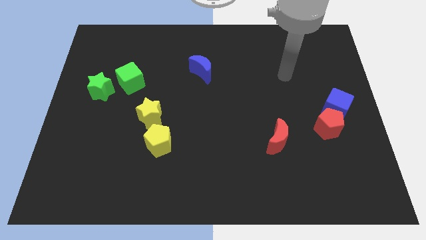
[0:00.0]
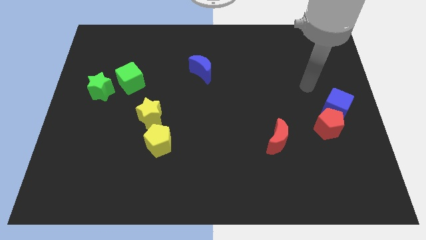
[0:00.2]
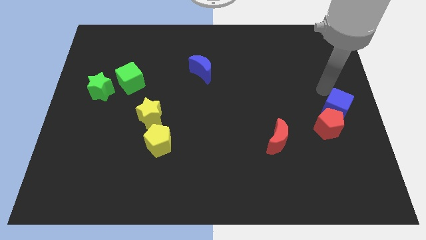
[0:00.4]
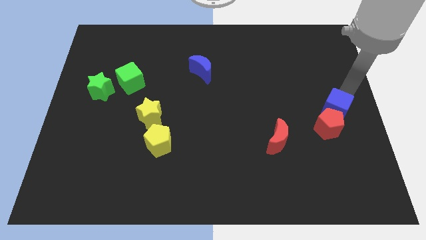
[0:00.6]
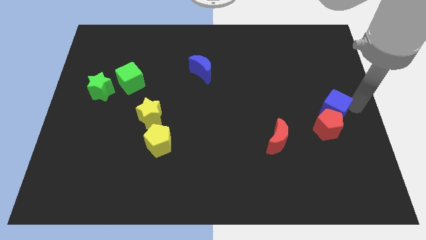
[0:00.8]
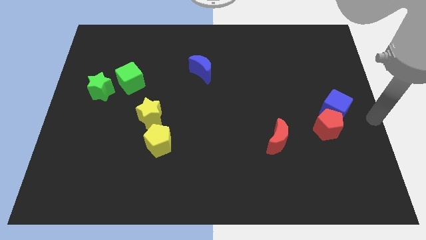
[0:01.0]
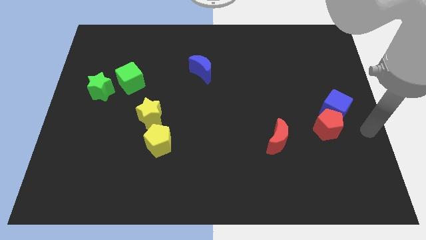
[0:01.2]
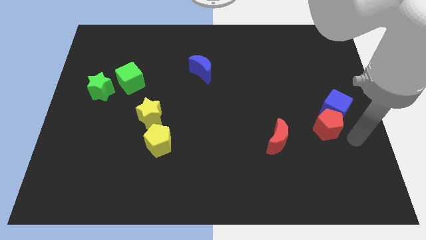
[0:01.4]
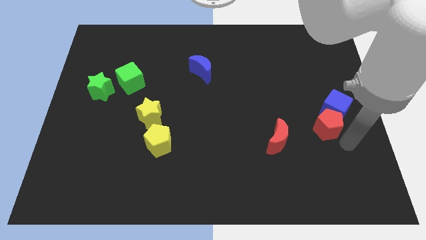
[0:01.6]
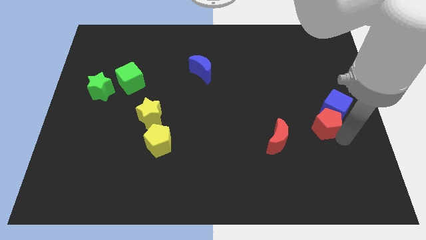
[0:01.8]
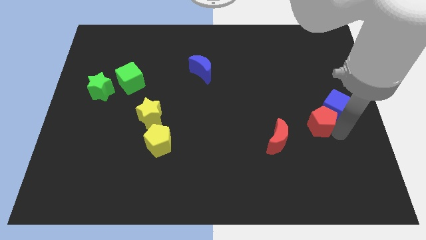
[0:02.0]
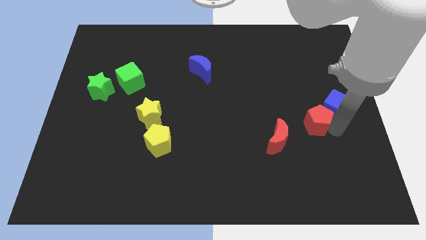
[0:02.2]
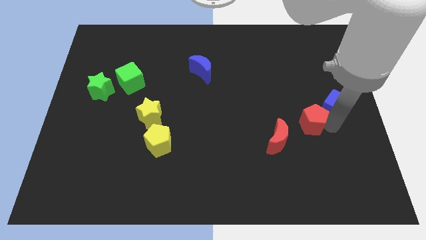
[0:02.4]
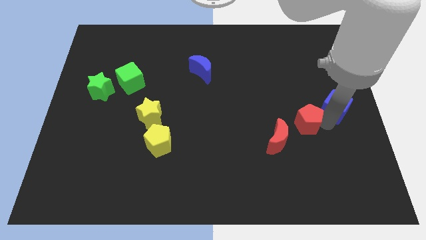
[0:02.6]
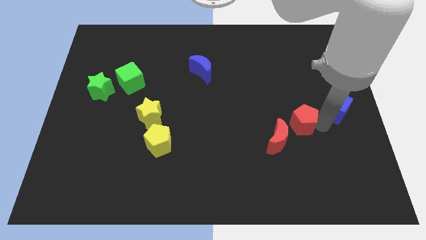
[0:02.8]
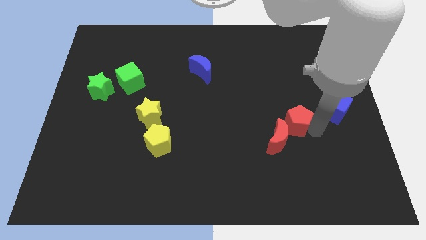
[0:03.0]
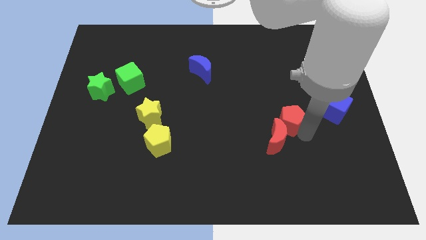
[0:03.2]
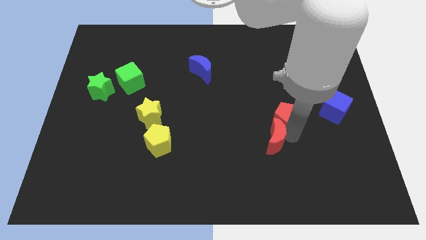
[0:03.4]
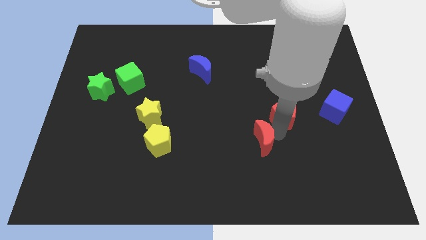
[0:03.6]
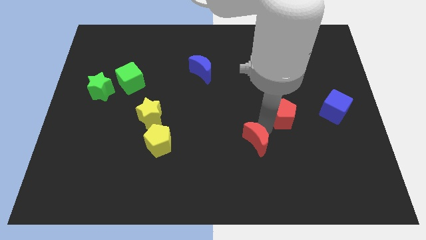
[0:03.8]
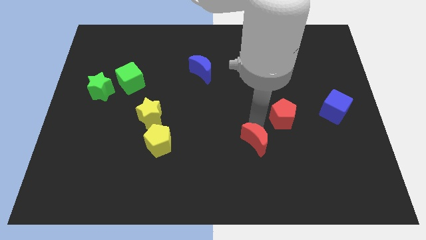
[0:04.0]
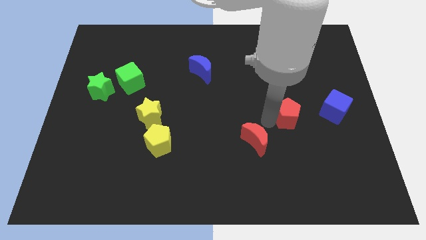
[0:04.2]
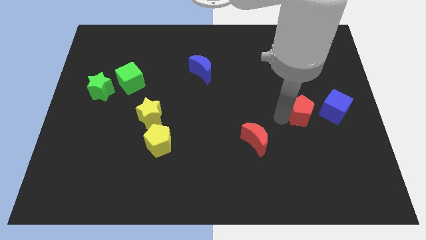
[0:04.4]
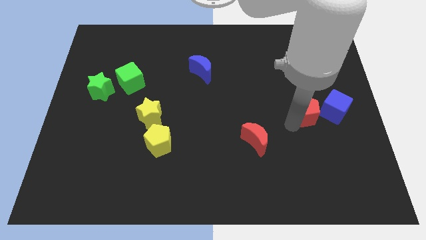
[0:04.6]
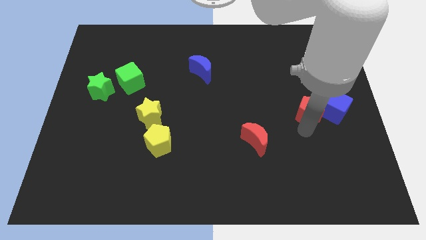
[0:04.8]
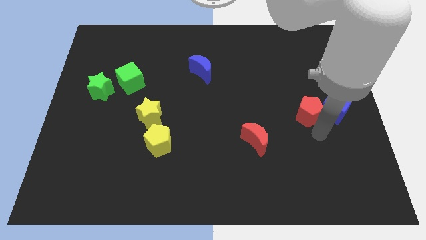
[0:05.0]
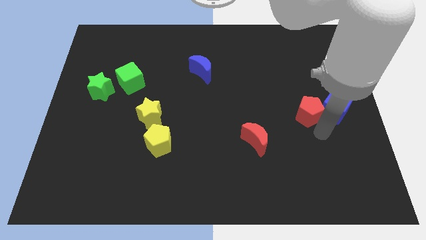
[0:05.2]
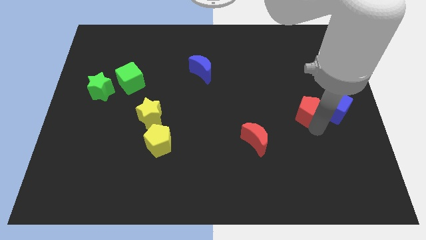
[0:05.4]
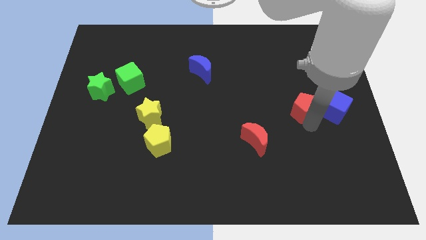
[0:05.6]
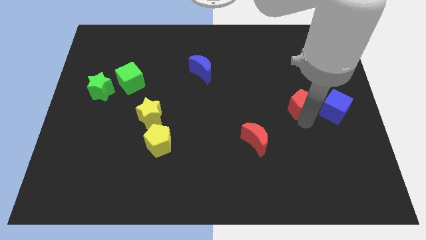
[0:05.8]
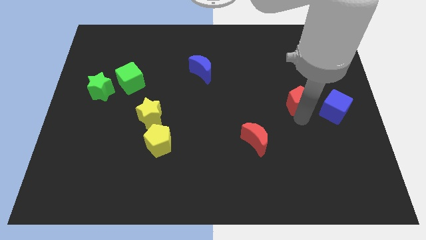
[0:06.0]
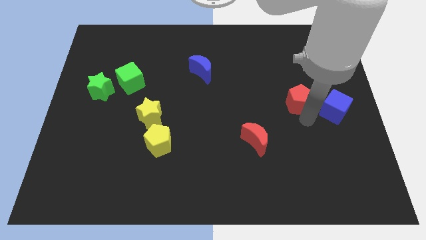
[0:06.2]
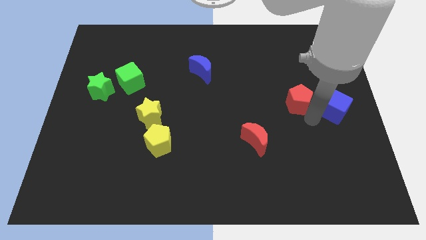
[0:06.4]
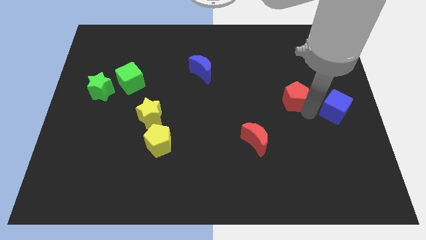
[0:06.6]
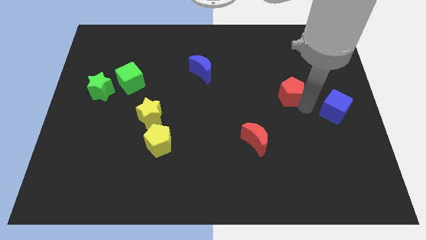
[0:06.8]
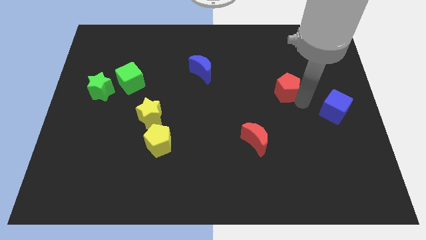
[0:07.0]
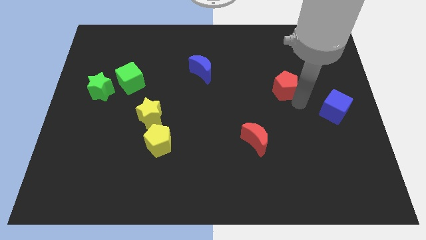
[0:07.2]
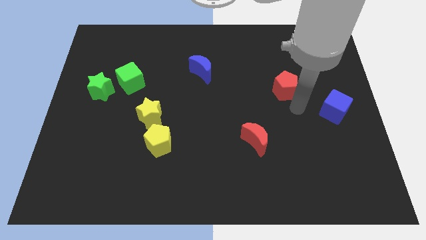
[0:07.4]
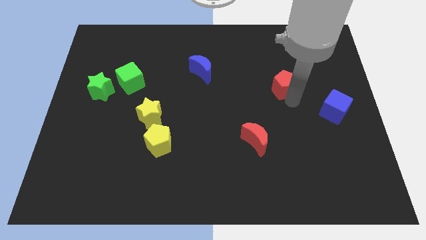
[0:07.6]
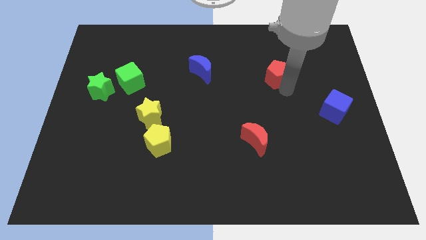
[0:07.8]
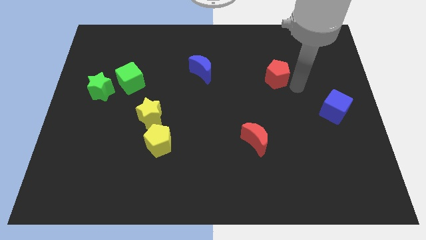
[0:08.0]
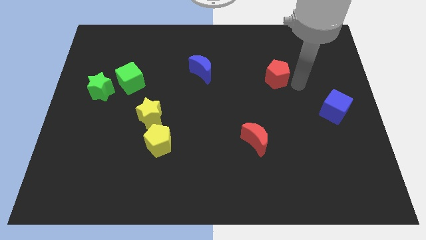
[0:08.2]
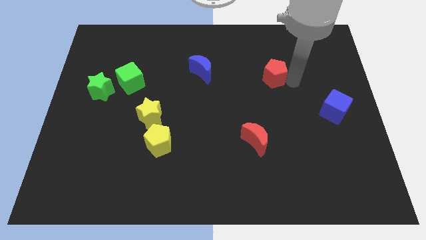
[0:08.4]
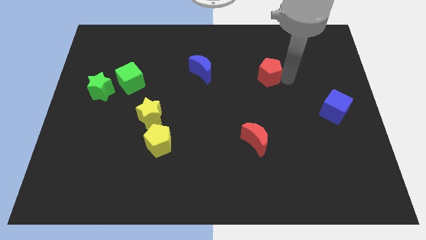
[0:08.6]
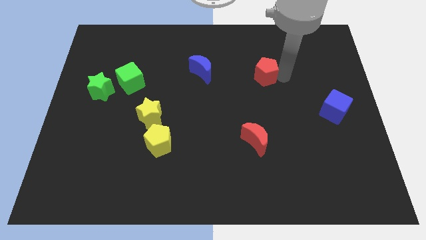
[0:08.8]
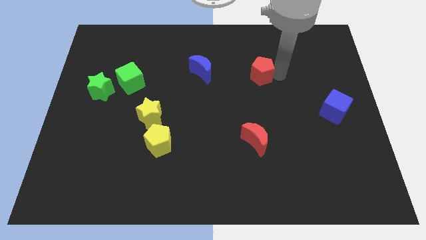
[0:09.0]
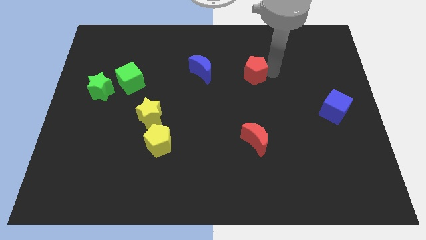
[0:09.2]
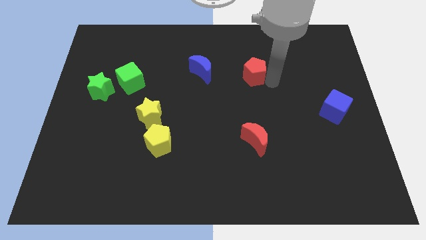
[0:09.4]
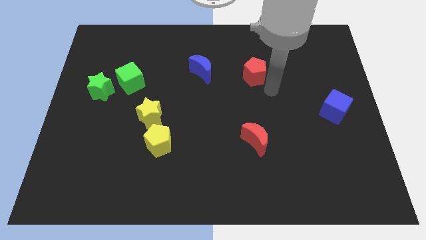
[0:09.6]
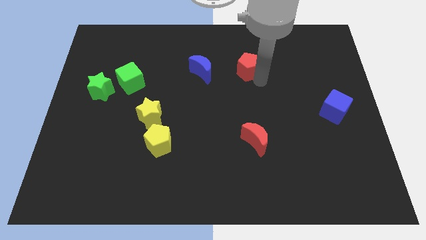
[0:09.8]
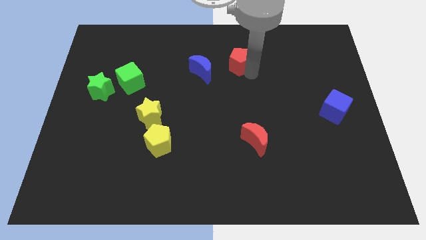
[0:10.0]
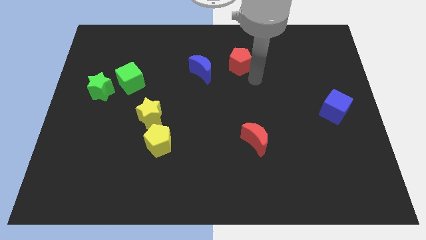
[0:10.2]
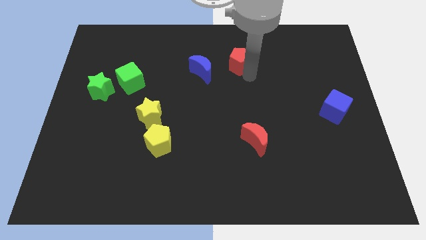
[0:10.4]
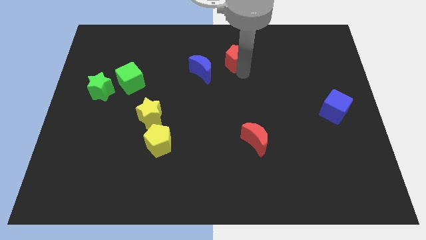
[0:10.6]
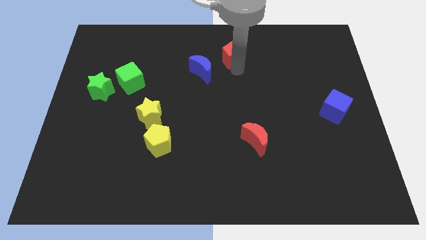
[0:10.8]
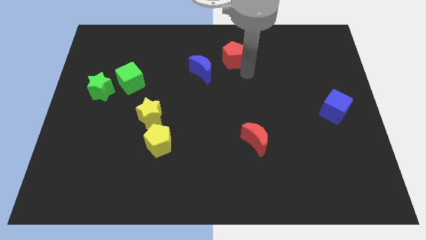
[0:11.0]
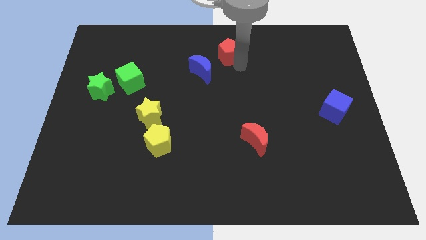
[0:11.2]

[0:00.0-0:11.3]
push the red pentagon to the towards your base
